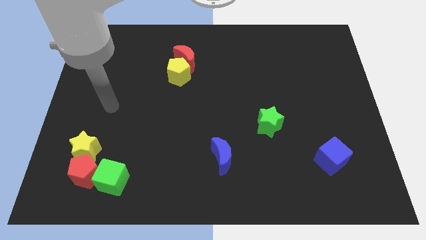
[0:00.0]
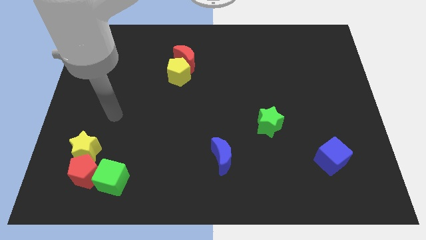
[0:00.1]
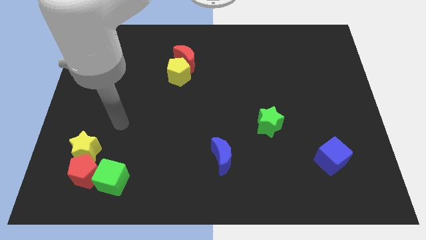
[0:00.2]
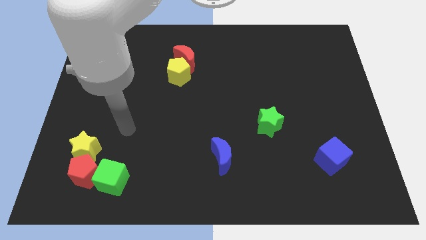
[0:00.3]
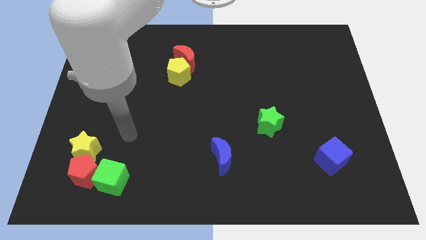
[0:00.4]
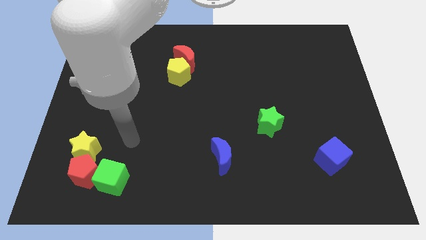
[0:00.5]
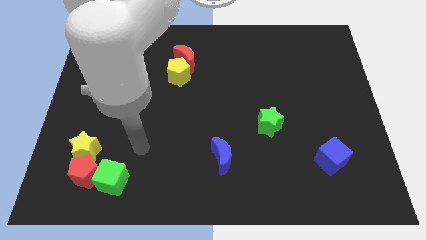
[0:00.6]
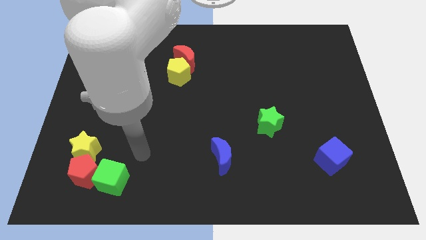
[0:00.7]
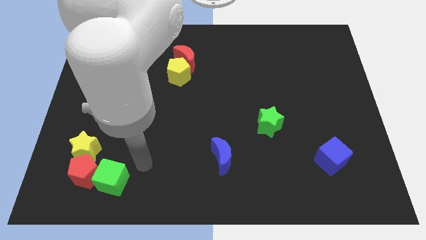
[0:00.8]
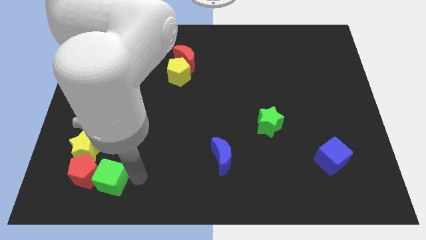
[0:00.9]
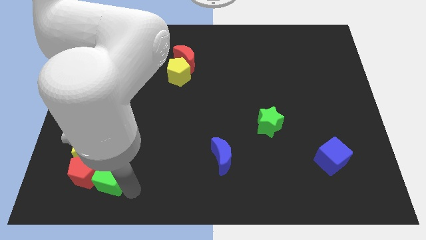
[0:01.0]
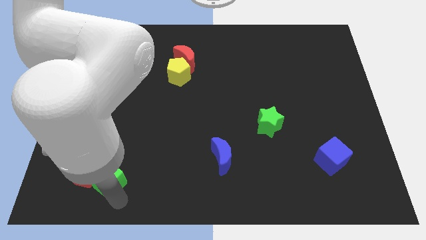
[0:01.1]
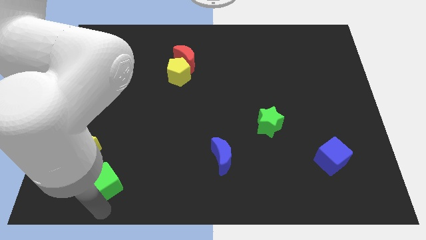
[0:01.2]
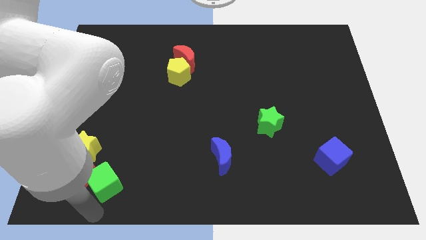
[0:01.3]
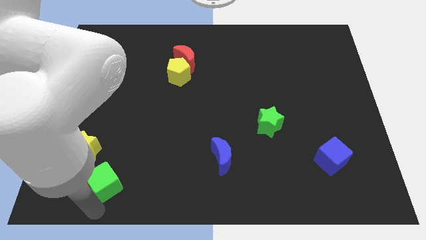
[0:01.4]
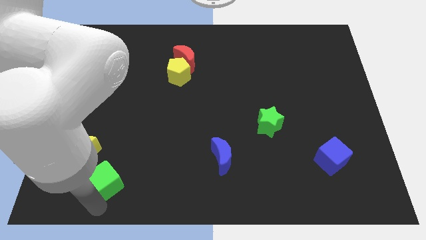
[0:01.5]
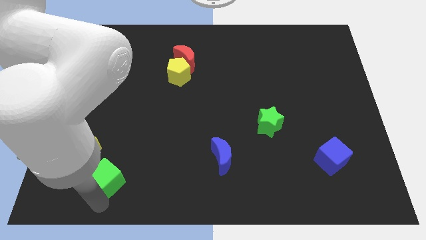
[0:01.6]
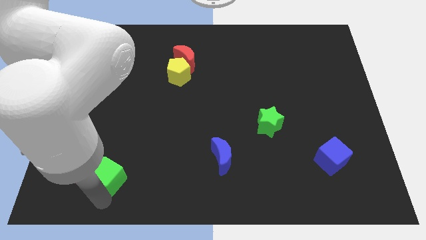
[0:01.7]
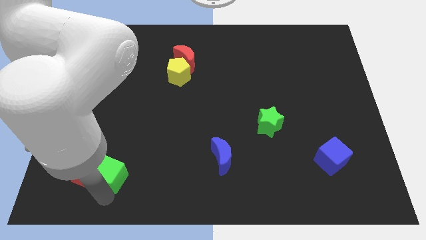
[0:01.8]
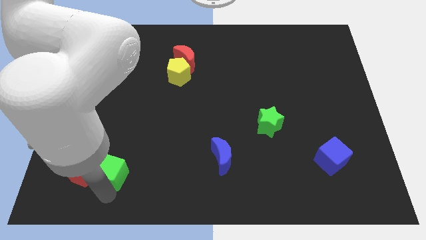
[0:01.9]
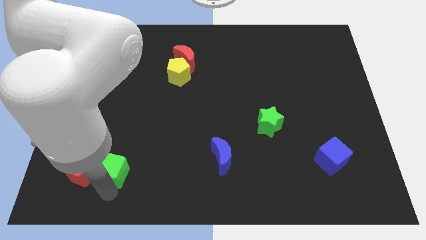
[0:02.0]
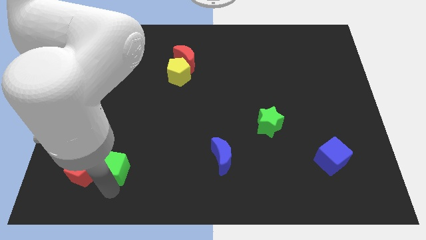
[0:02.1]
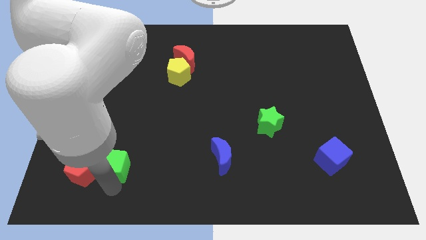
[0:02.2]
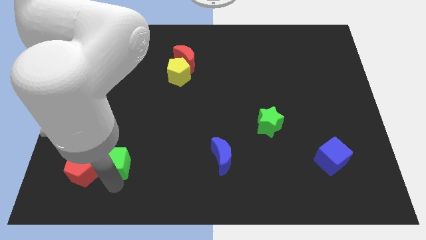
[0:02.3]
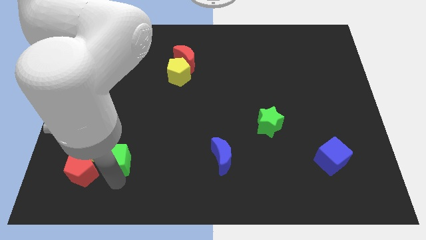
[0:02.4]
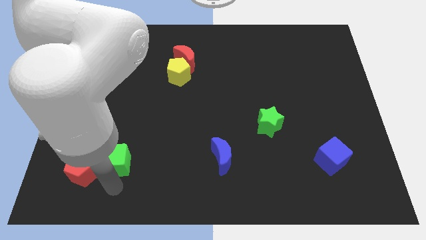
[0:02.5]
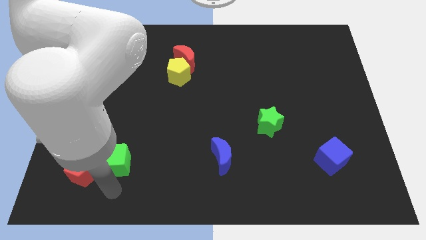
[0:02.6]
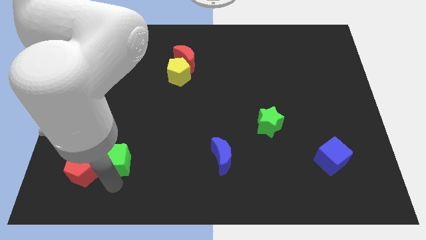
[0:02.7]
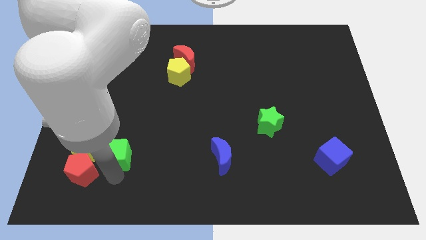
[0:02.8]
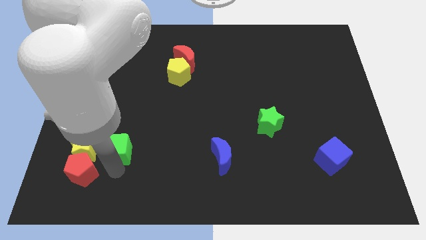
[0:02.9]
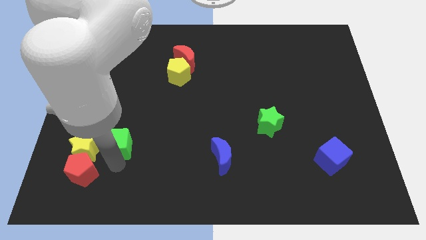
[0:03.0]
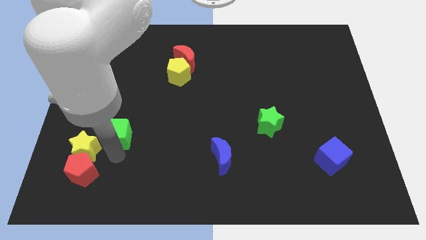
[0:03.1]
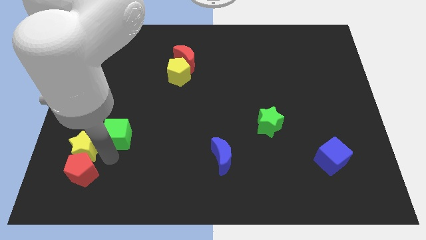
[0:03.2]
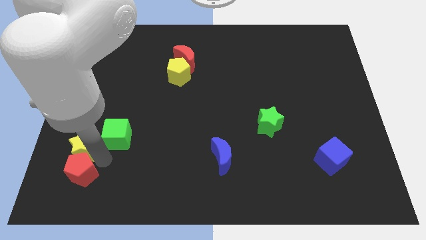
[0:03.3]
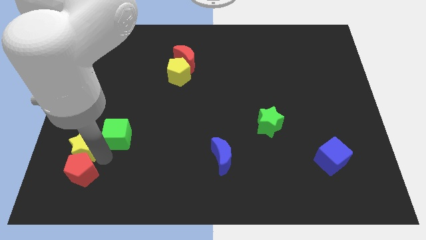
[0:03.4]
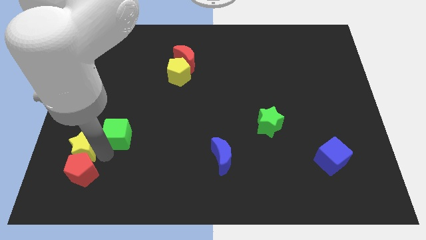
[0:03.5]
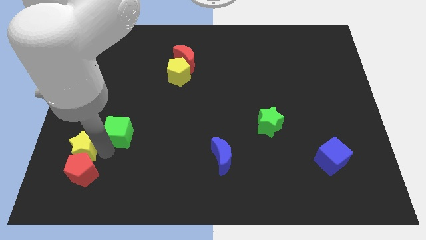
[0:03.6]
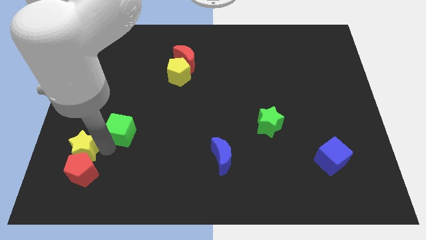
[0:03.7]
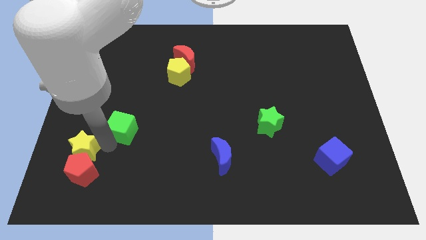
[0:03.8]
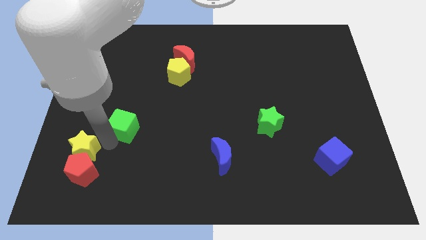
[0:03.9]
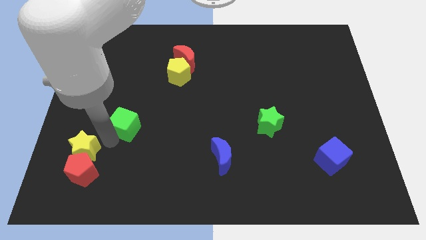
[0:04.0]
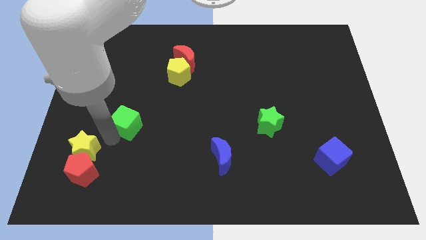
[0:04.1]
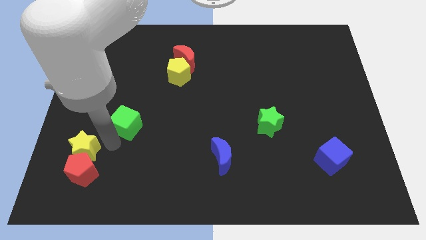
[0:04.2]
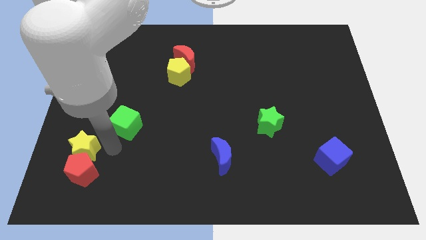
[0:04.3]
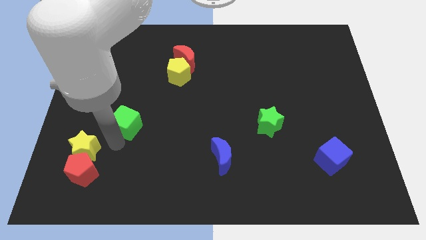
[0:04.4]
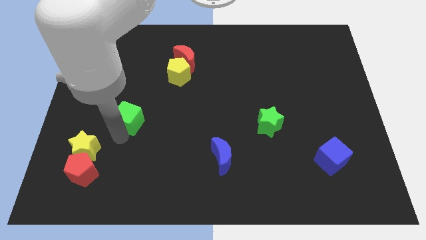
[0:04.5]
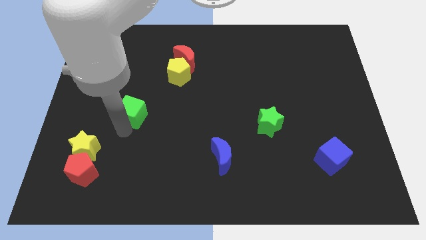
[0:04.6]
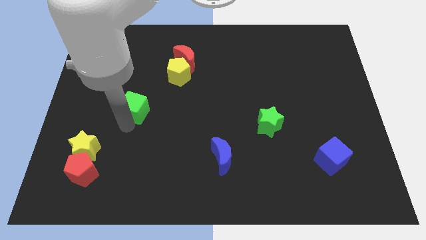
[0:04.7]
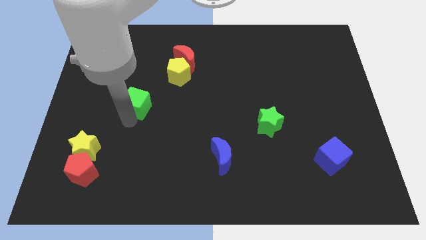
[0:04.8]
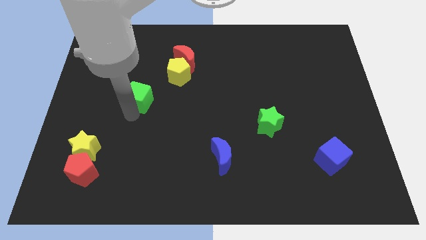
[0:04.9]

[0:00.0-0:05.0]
push the green cube diagonally down and to the left of the yellow pentagon

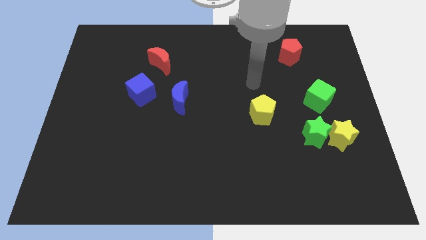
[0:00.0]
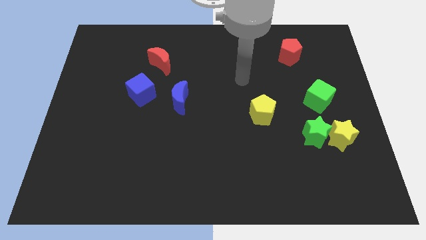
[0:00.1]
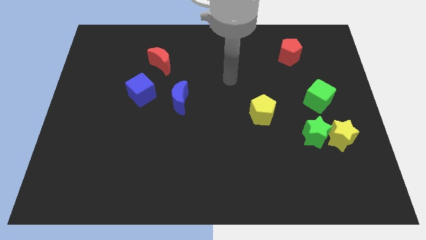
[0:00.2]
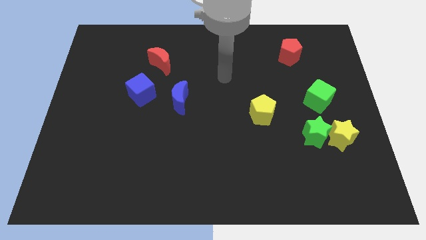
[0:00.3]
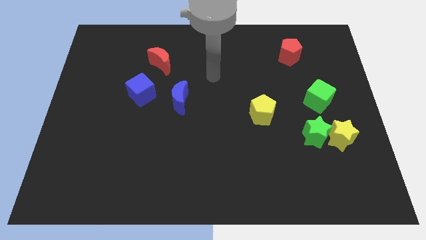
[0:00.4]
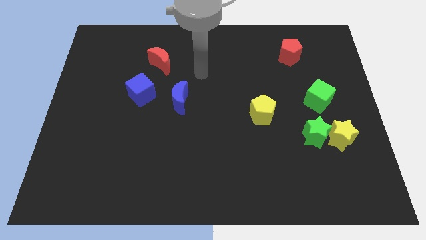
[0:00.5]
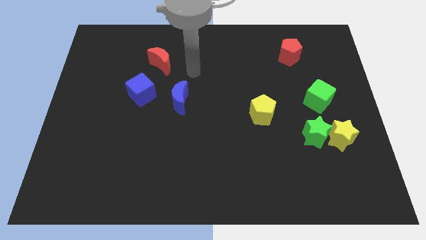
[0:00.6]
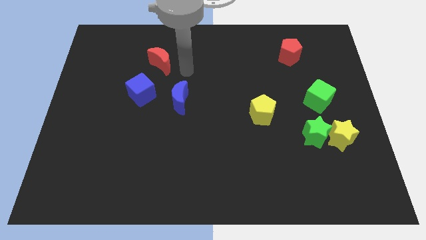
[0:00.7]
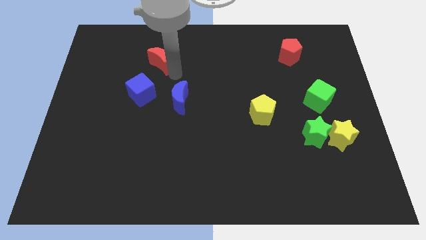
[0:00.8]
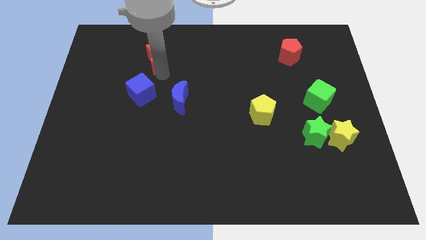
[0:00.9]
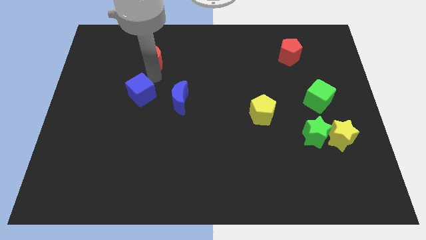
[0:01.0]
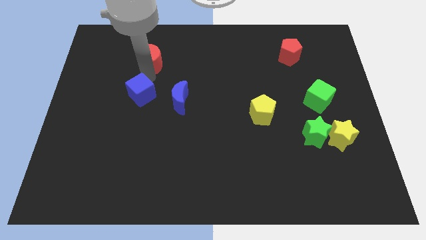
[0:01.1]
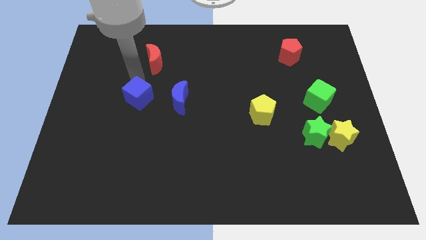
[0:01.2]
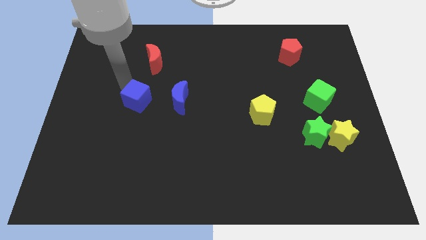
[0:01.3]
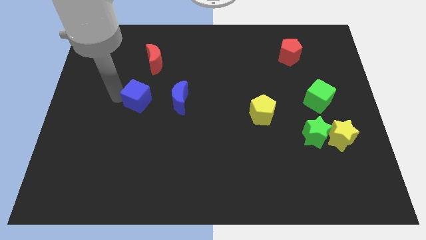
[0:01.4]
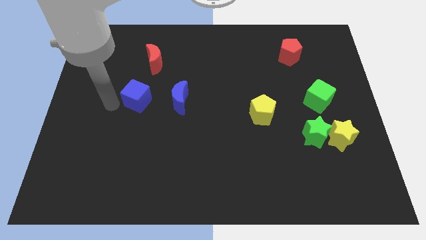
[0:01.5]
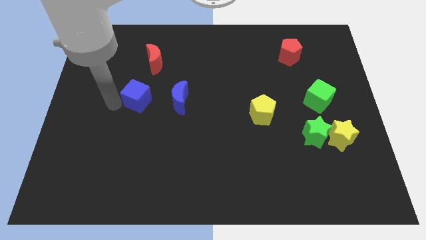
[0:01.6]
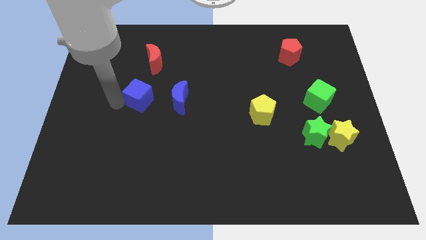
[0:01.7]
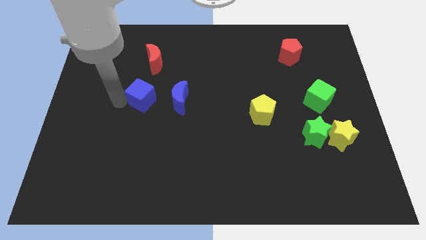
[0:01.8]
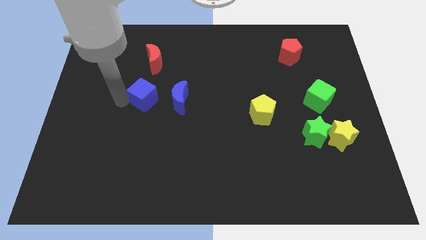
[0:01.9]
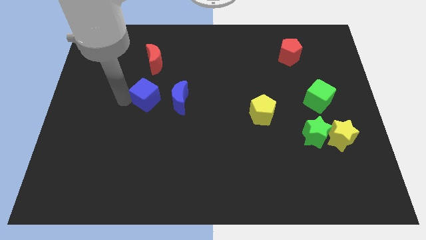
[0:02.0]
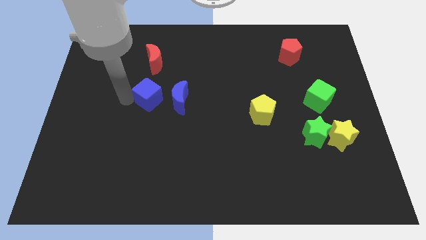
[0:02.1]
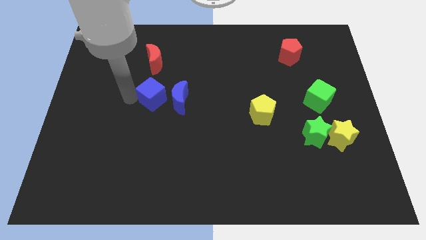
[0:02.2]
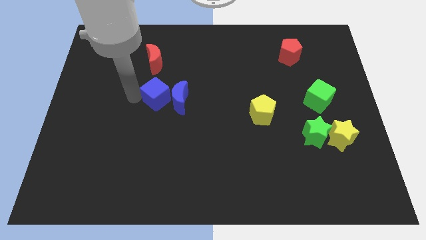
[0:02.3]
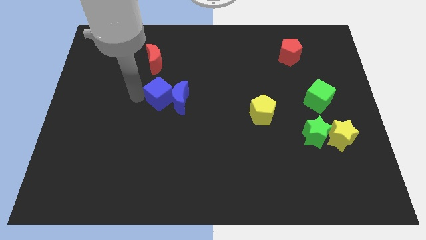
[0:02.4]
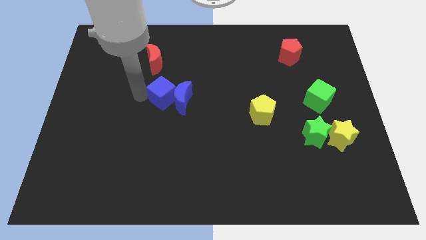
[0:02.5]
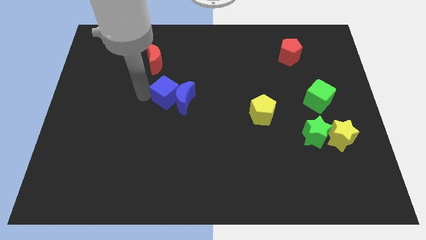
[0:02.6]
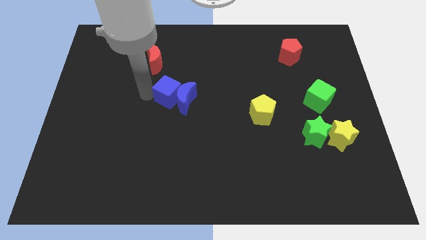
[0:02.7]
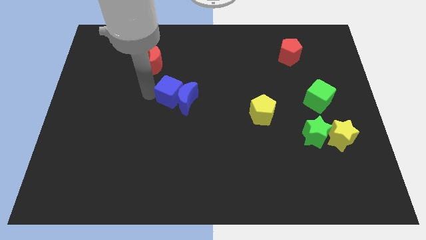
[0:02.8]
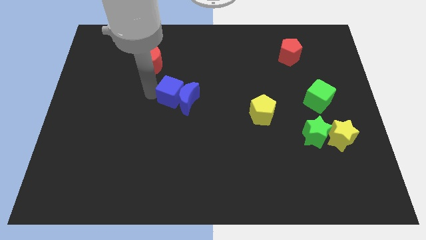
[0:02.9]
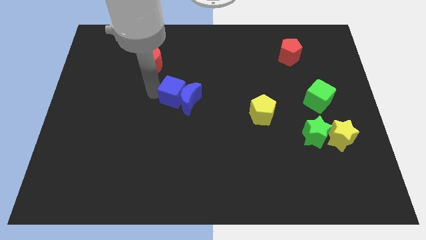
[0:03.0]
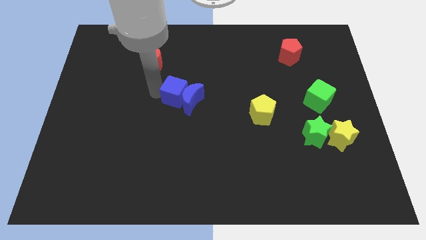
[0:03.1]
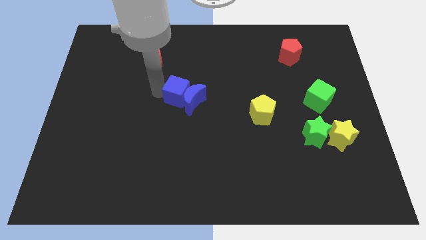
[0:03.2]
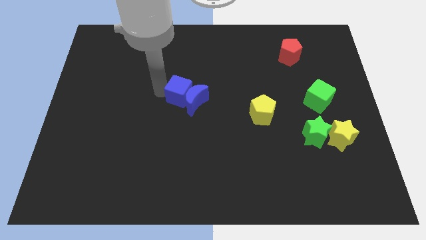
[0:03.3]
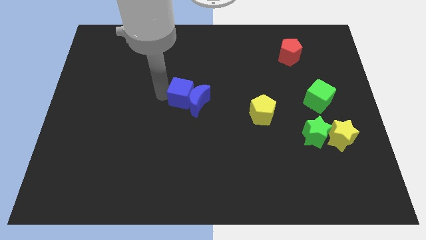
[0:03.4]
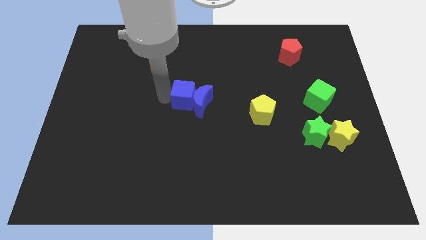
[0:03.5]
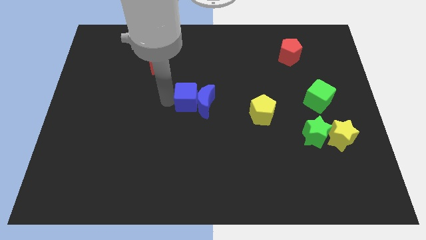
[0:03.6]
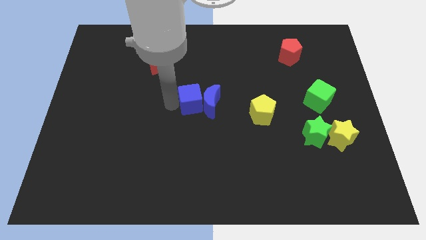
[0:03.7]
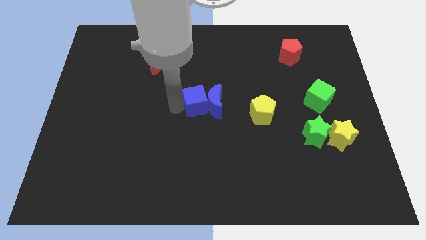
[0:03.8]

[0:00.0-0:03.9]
slide the blue cube left of the yellow pentagon
